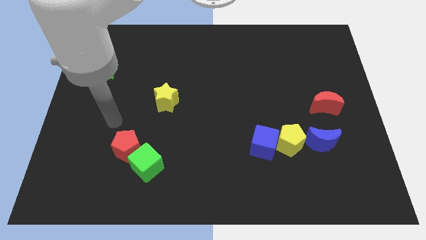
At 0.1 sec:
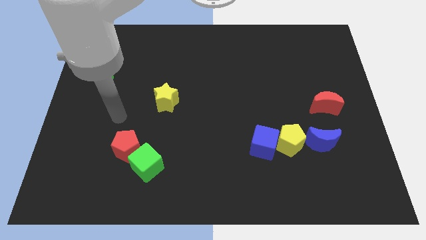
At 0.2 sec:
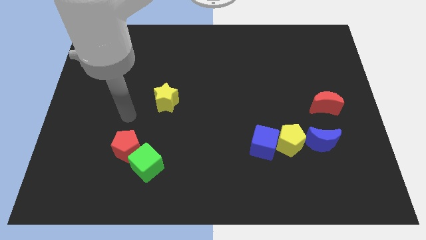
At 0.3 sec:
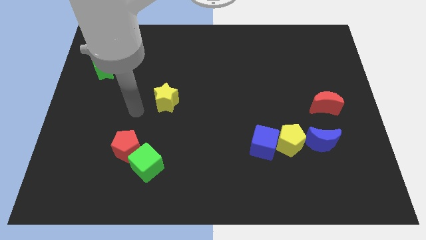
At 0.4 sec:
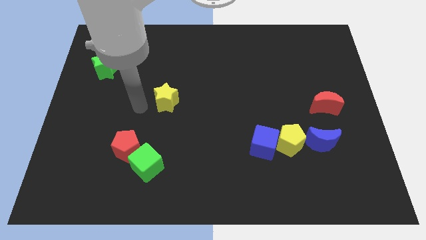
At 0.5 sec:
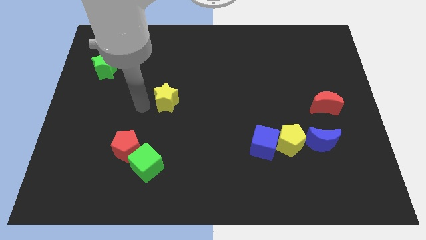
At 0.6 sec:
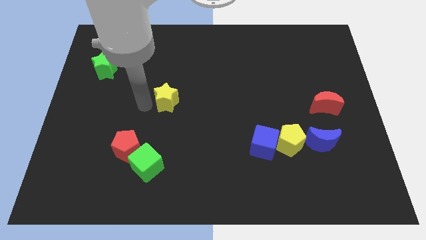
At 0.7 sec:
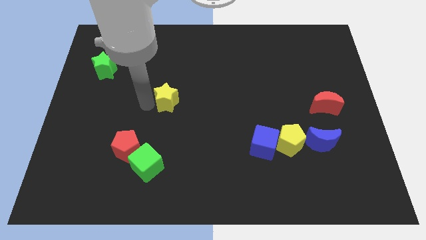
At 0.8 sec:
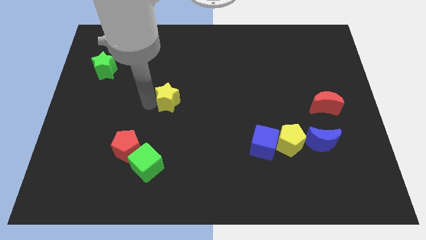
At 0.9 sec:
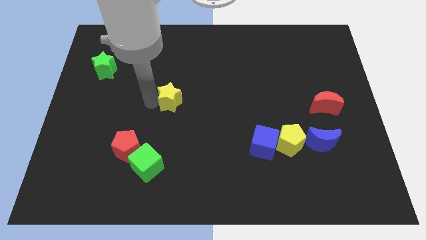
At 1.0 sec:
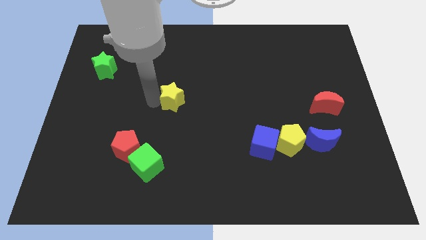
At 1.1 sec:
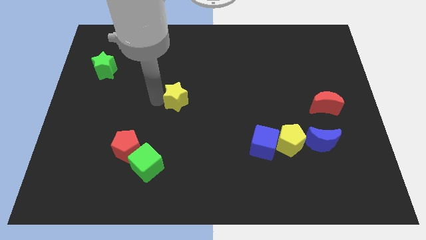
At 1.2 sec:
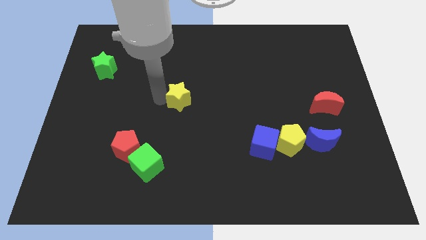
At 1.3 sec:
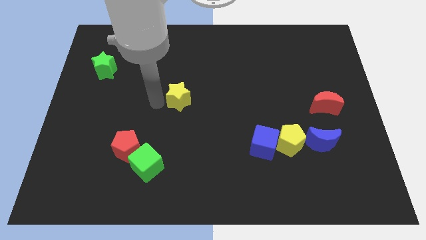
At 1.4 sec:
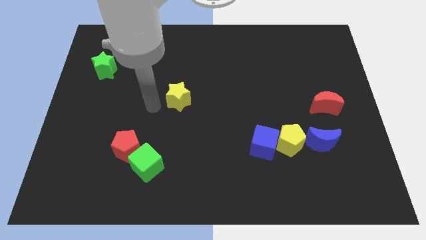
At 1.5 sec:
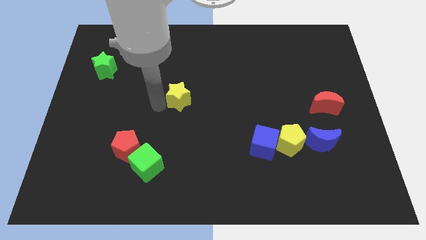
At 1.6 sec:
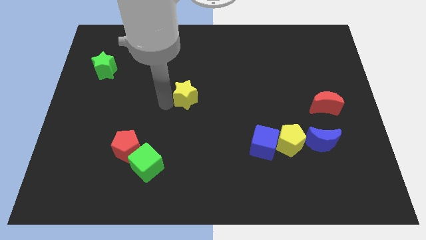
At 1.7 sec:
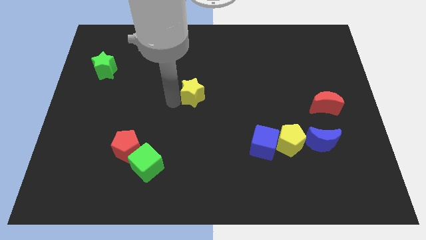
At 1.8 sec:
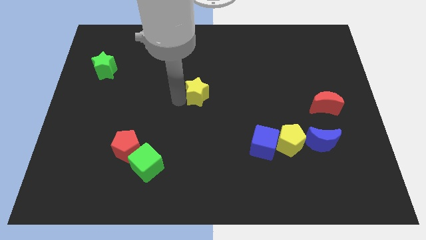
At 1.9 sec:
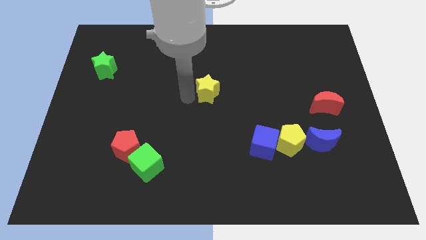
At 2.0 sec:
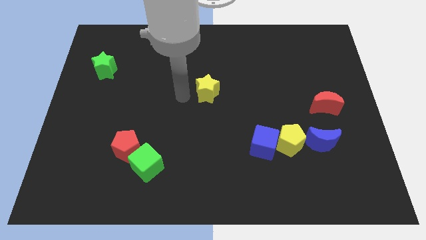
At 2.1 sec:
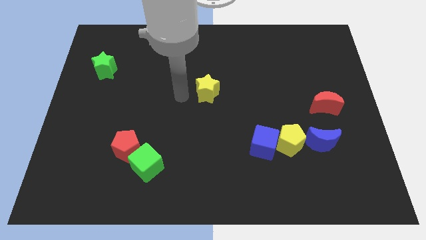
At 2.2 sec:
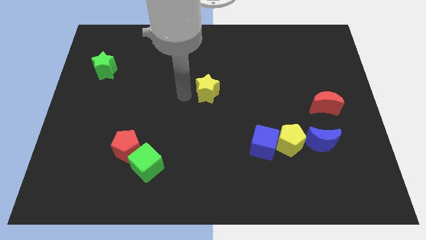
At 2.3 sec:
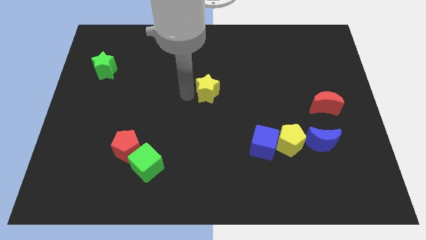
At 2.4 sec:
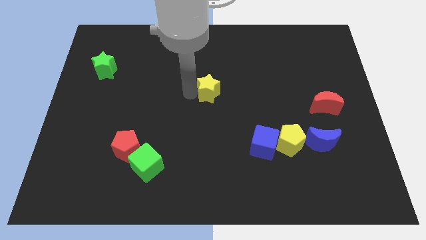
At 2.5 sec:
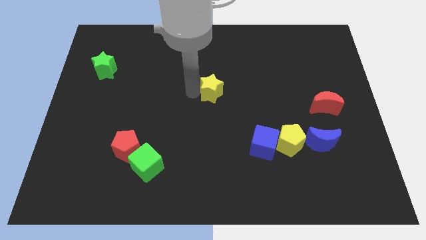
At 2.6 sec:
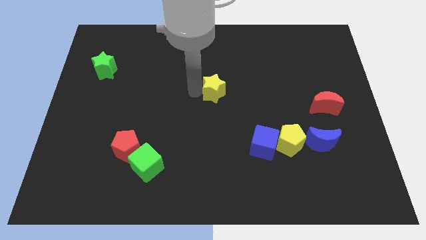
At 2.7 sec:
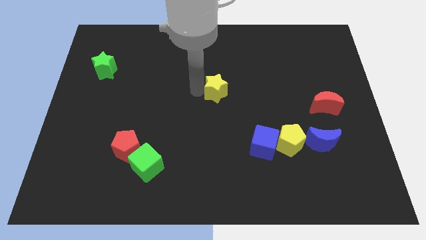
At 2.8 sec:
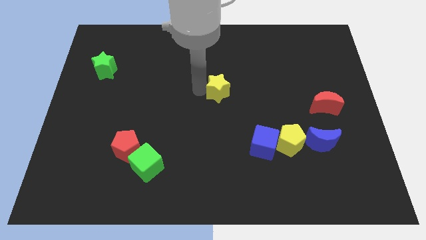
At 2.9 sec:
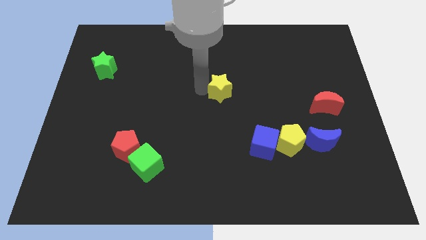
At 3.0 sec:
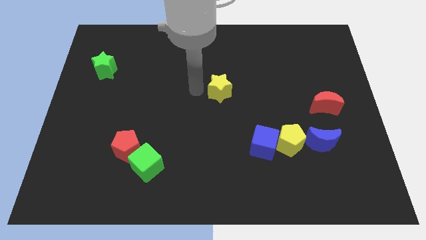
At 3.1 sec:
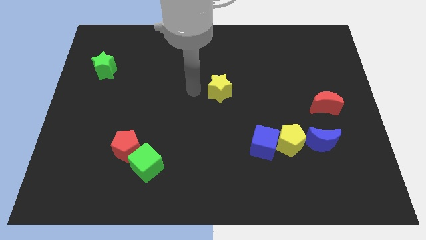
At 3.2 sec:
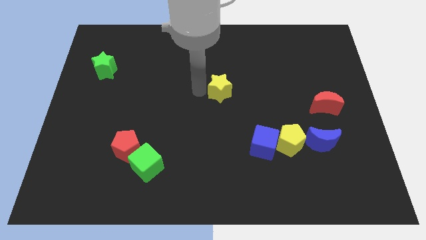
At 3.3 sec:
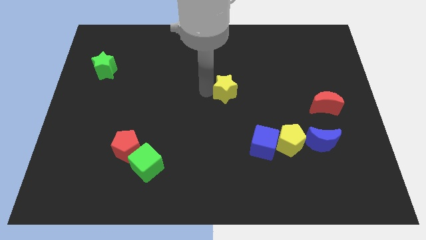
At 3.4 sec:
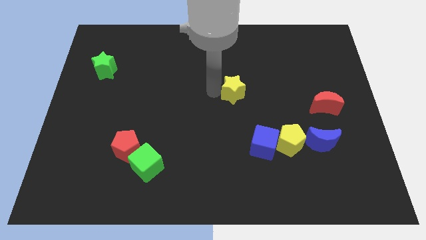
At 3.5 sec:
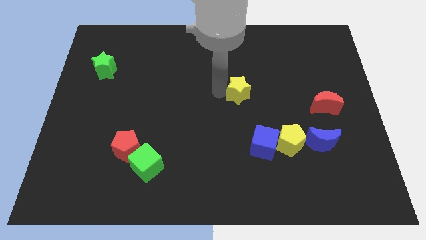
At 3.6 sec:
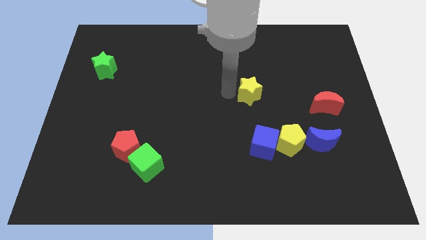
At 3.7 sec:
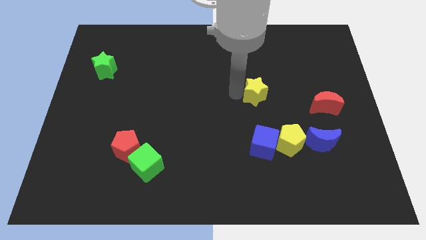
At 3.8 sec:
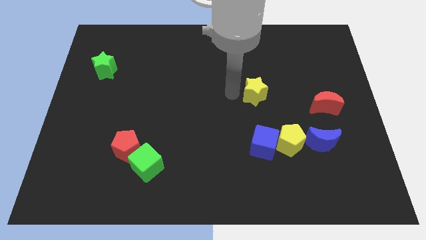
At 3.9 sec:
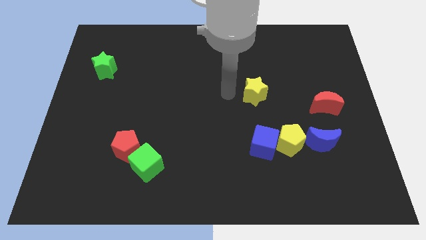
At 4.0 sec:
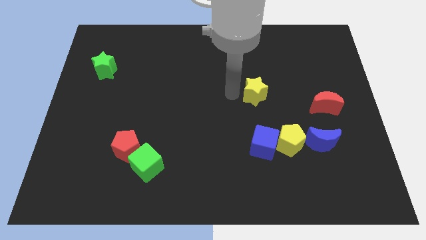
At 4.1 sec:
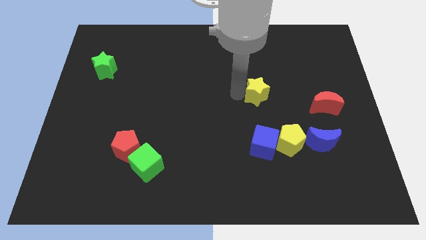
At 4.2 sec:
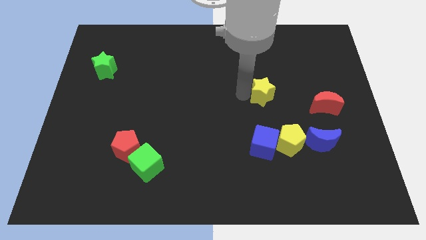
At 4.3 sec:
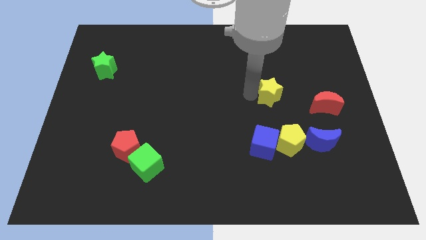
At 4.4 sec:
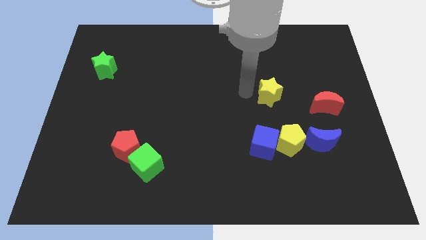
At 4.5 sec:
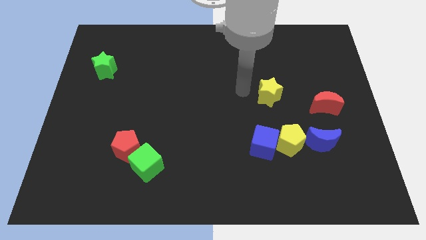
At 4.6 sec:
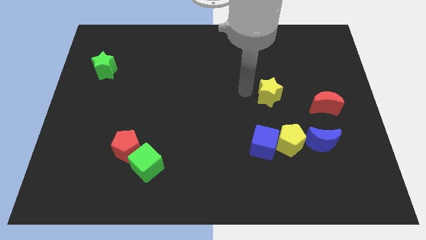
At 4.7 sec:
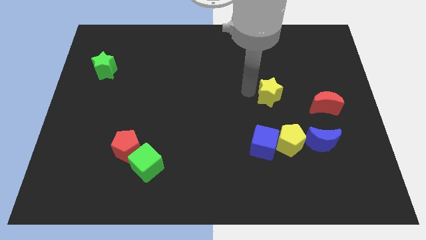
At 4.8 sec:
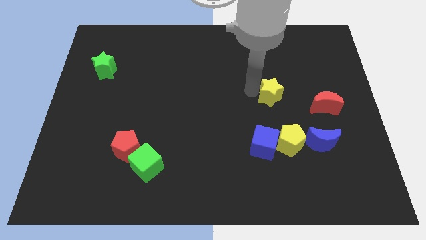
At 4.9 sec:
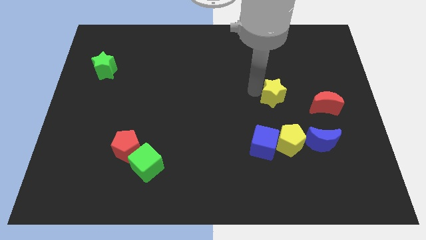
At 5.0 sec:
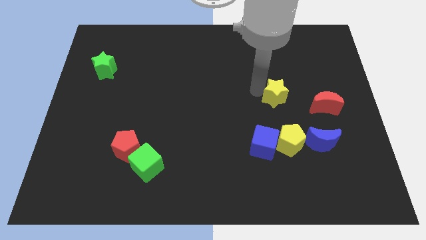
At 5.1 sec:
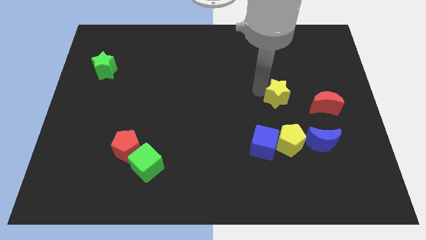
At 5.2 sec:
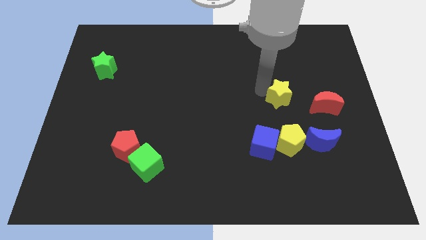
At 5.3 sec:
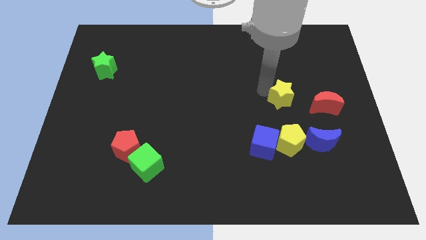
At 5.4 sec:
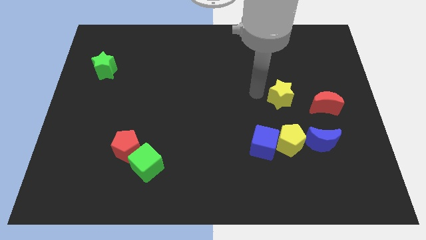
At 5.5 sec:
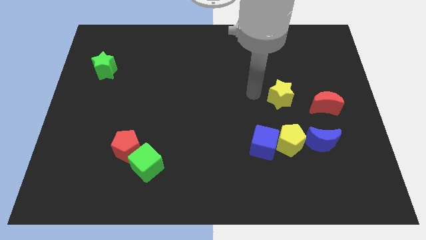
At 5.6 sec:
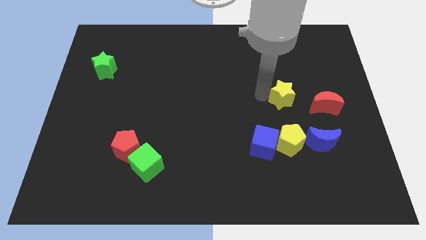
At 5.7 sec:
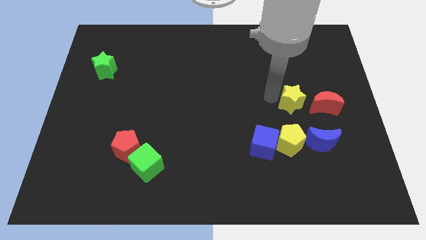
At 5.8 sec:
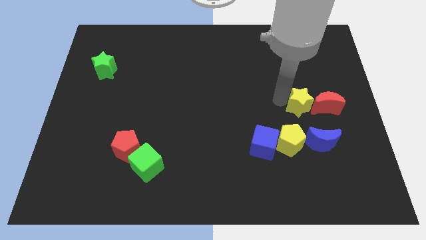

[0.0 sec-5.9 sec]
move the yellow star to the red moon

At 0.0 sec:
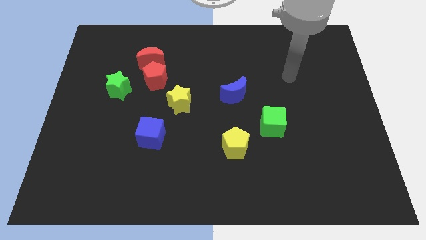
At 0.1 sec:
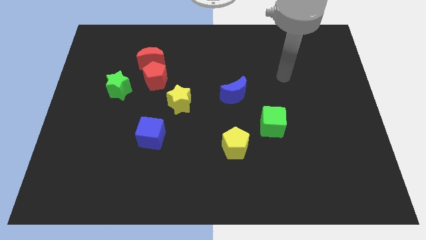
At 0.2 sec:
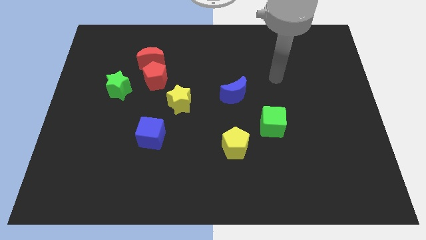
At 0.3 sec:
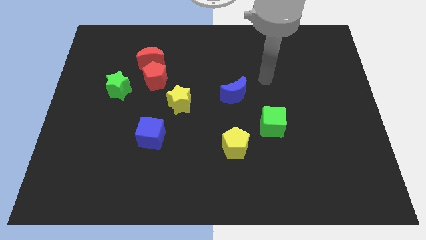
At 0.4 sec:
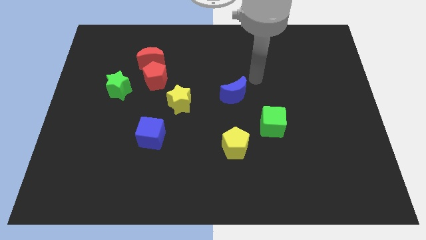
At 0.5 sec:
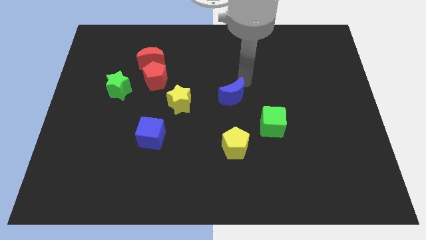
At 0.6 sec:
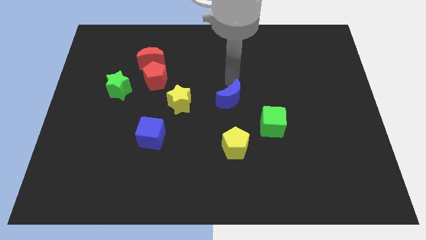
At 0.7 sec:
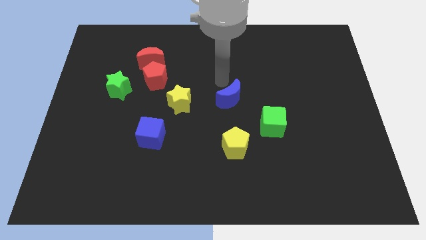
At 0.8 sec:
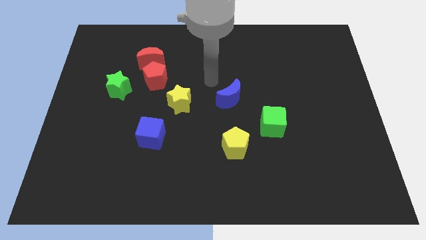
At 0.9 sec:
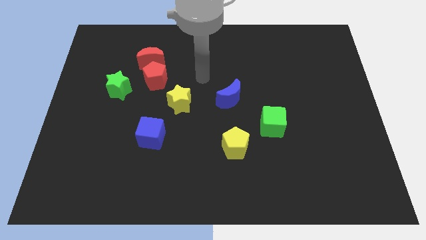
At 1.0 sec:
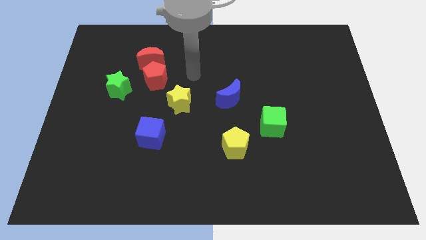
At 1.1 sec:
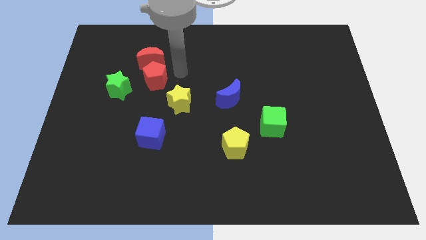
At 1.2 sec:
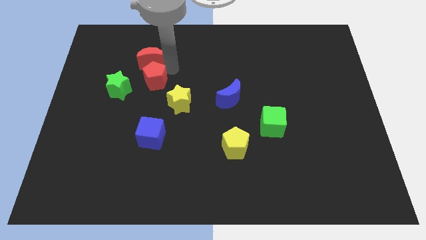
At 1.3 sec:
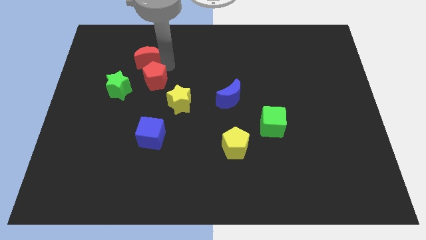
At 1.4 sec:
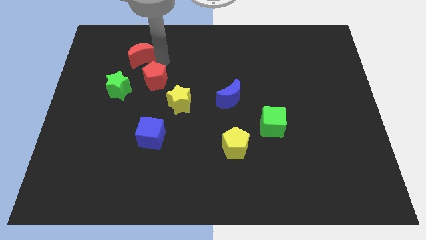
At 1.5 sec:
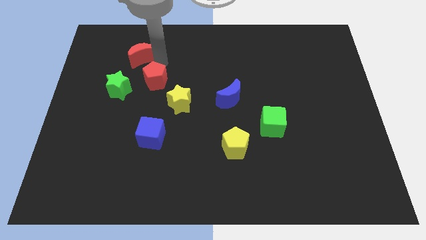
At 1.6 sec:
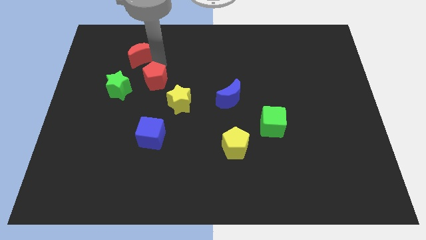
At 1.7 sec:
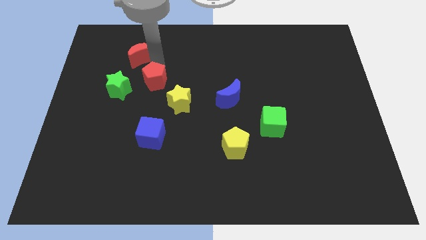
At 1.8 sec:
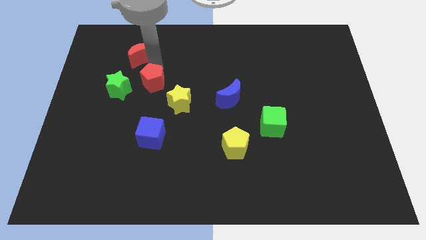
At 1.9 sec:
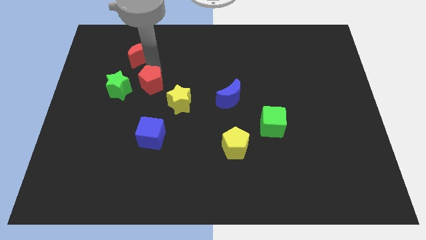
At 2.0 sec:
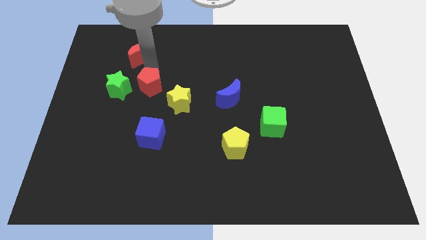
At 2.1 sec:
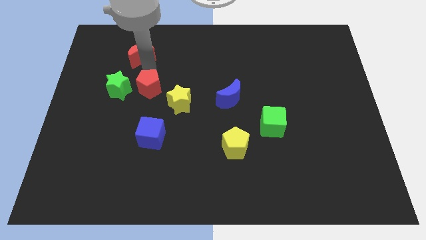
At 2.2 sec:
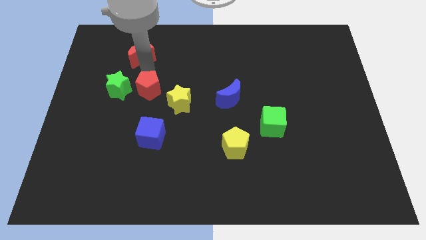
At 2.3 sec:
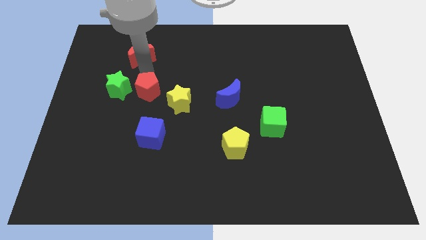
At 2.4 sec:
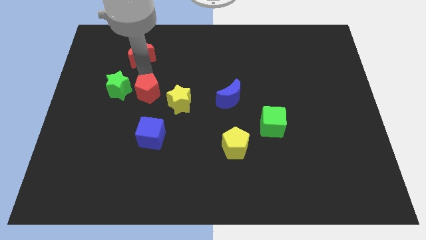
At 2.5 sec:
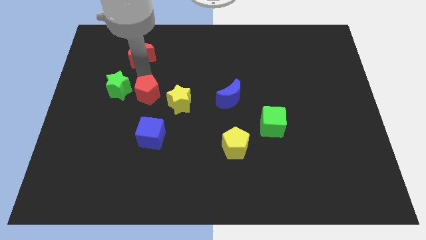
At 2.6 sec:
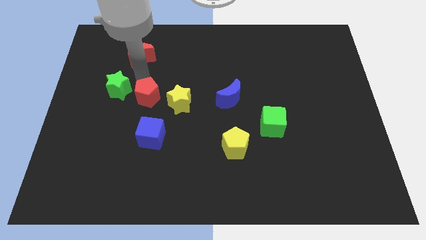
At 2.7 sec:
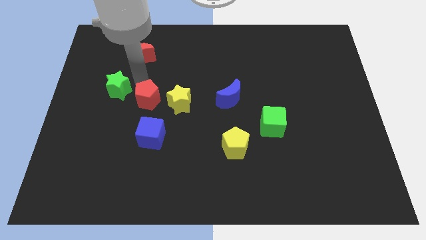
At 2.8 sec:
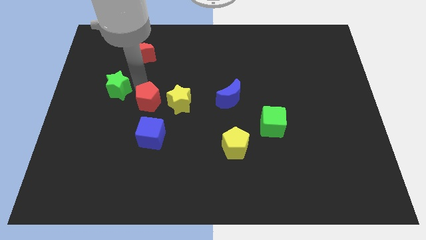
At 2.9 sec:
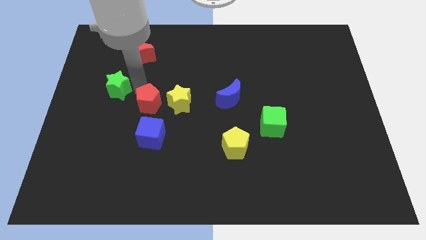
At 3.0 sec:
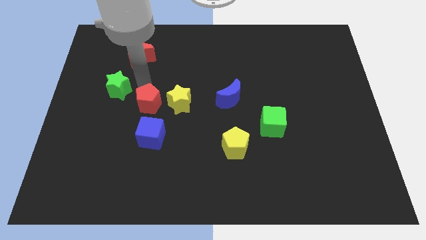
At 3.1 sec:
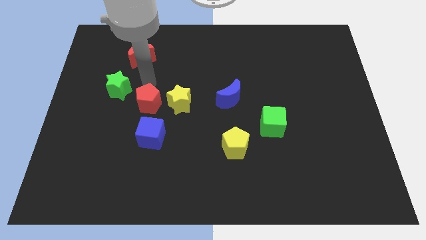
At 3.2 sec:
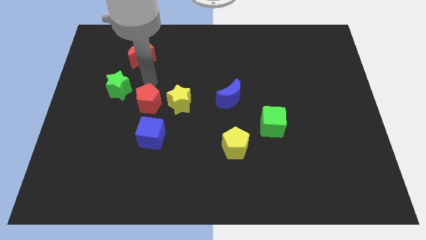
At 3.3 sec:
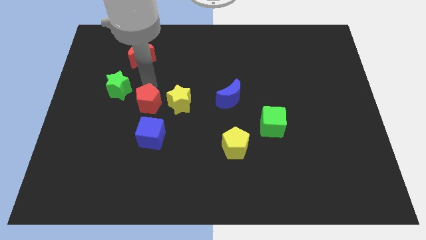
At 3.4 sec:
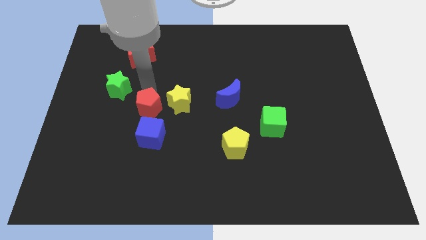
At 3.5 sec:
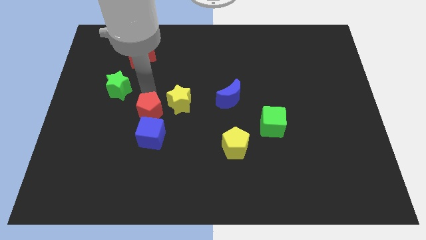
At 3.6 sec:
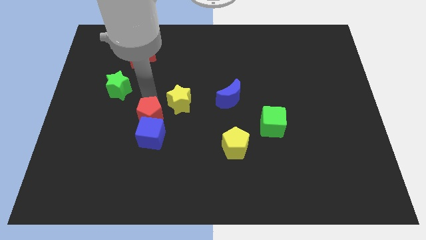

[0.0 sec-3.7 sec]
put the red pentagon next to the blue cube
